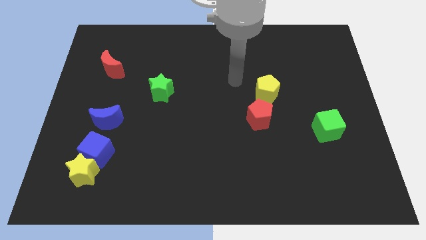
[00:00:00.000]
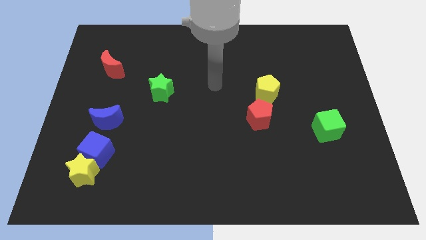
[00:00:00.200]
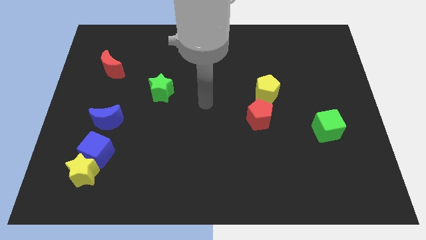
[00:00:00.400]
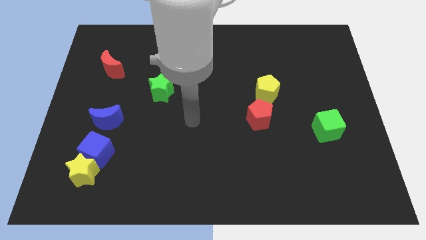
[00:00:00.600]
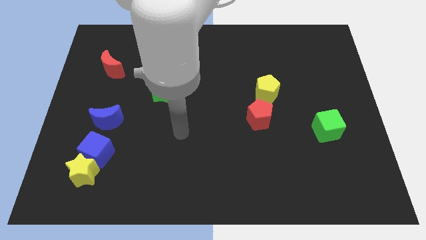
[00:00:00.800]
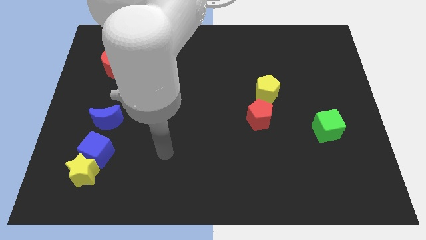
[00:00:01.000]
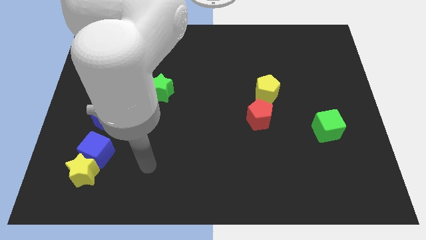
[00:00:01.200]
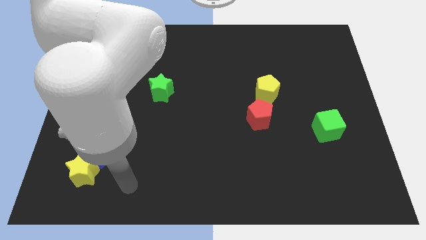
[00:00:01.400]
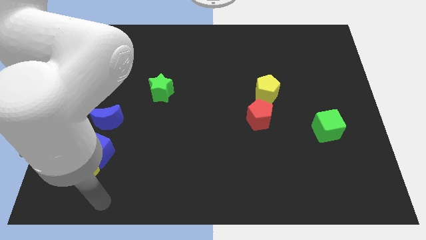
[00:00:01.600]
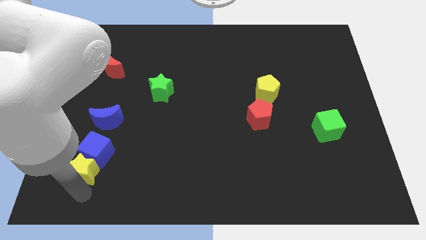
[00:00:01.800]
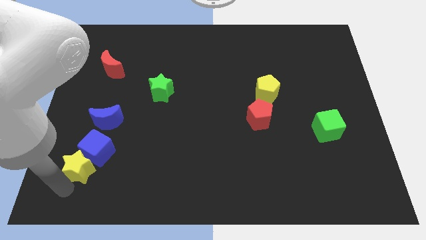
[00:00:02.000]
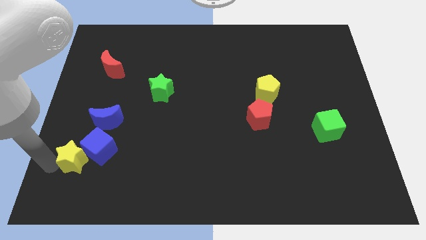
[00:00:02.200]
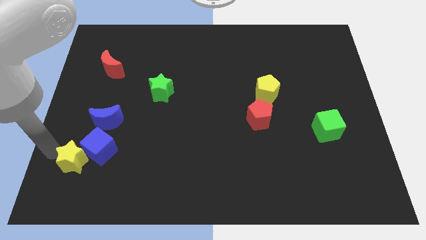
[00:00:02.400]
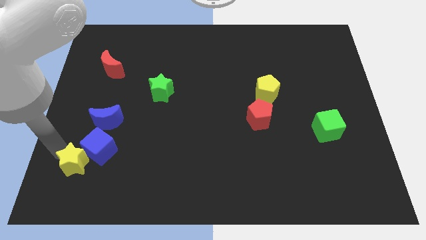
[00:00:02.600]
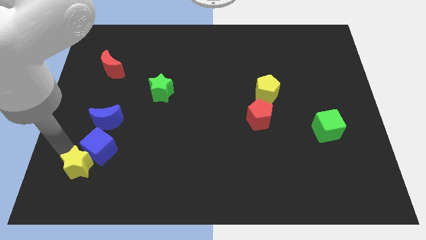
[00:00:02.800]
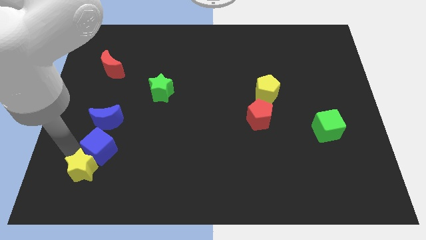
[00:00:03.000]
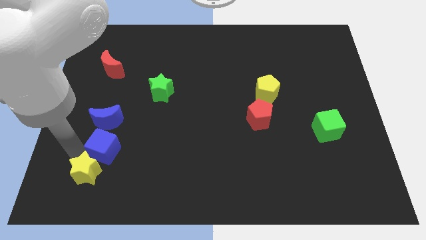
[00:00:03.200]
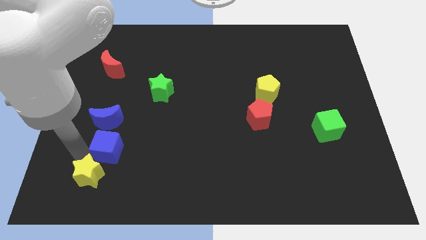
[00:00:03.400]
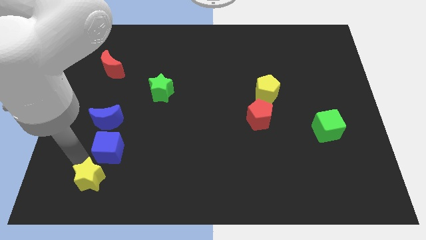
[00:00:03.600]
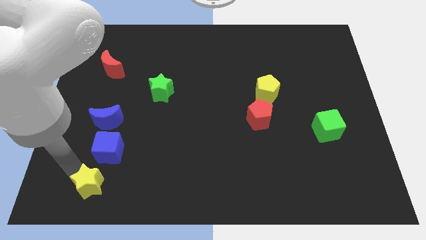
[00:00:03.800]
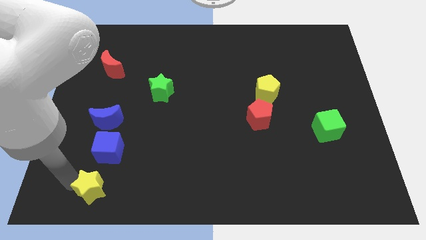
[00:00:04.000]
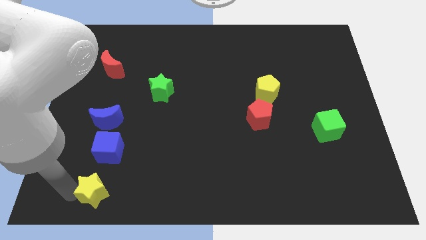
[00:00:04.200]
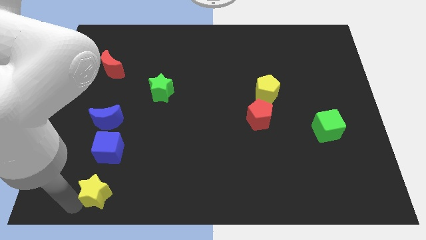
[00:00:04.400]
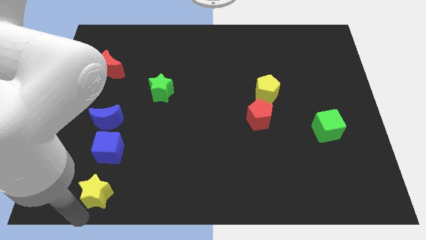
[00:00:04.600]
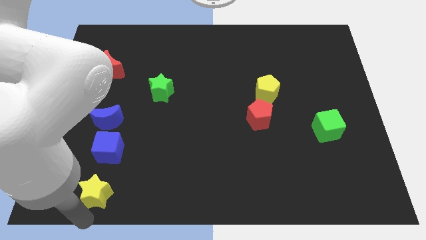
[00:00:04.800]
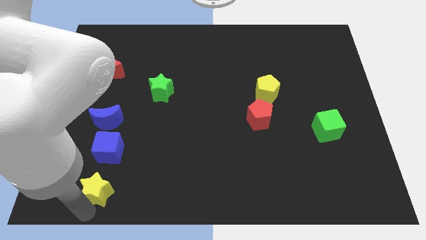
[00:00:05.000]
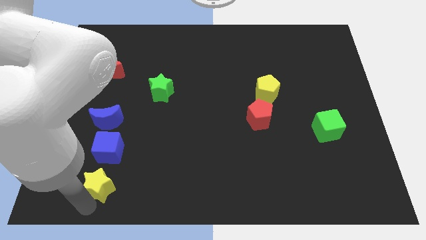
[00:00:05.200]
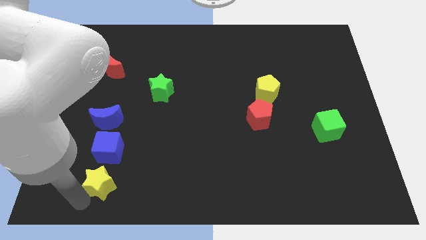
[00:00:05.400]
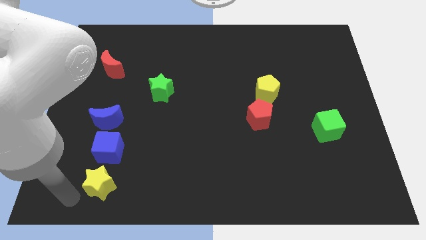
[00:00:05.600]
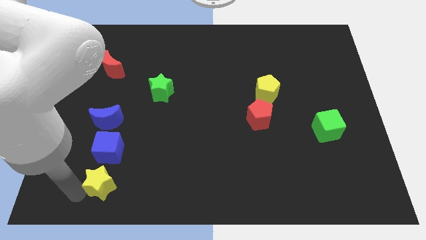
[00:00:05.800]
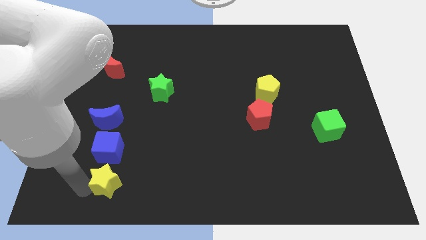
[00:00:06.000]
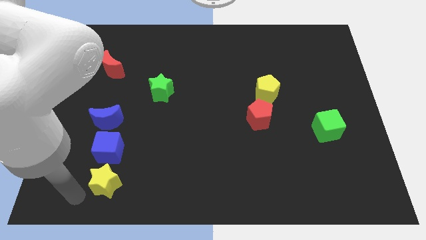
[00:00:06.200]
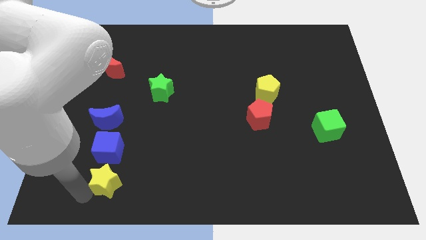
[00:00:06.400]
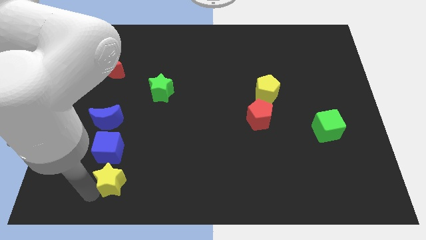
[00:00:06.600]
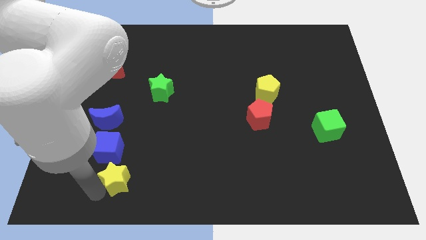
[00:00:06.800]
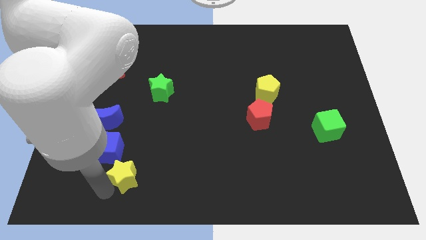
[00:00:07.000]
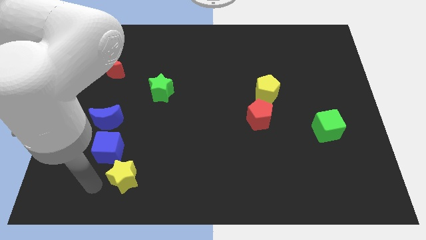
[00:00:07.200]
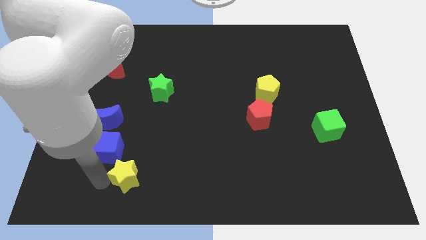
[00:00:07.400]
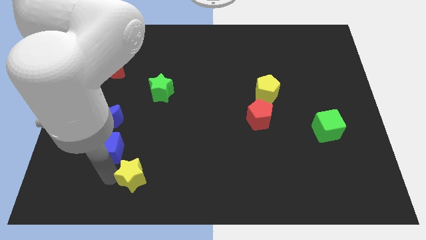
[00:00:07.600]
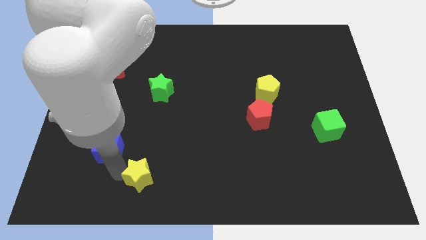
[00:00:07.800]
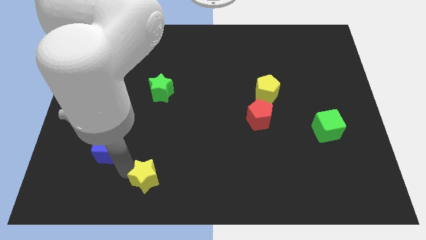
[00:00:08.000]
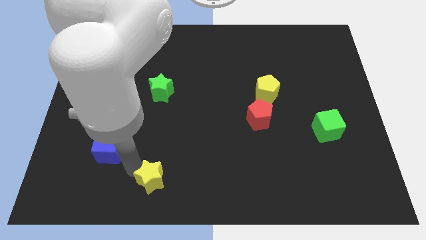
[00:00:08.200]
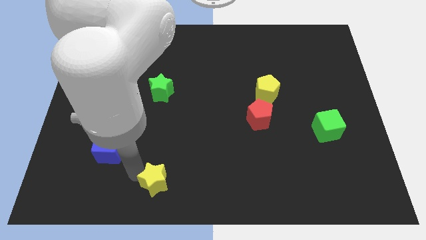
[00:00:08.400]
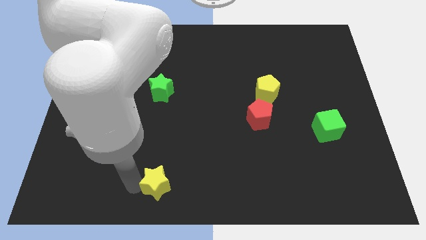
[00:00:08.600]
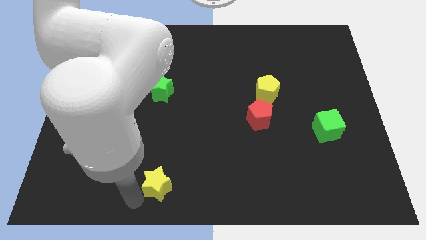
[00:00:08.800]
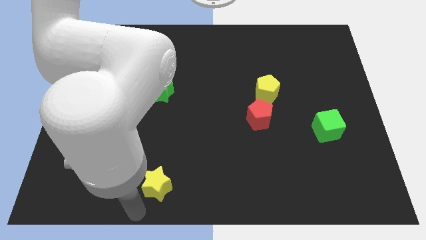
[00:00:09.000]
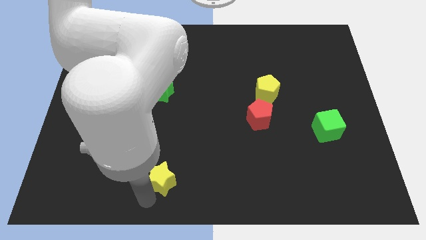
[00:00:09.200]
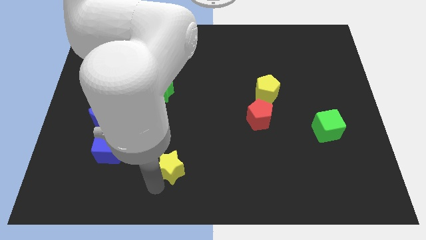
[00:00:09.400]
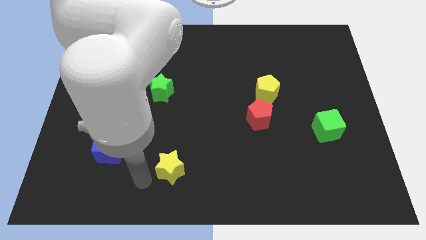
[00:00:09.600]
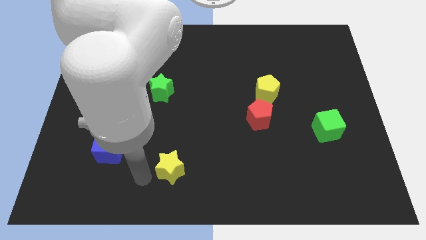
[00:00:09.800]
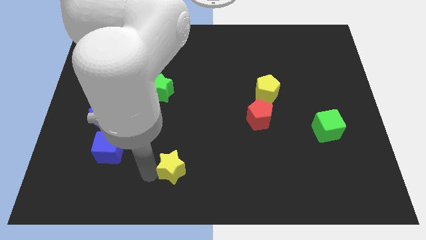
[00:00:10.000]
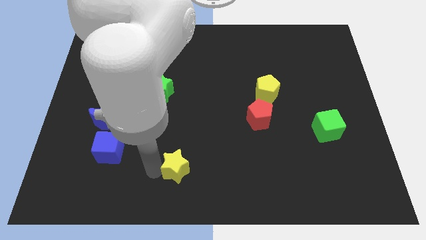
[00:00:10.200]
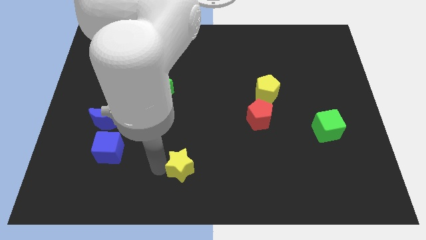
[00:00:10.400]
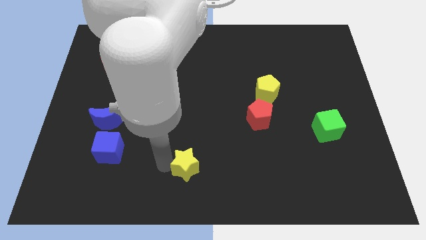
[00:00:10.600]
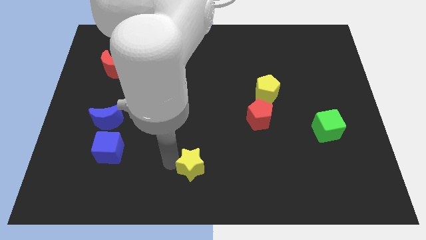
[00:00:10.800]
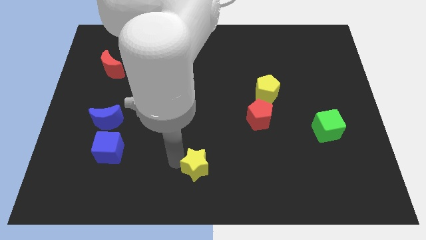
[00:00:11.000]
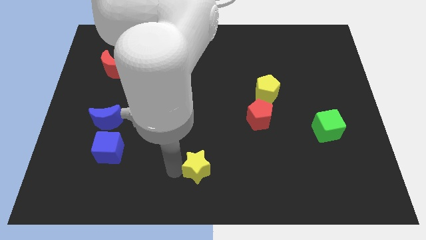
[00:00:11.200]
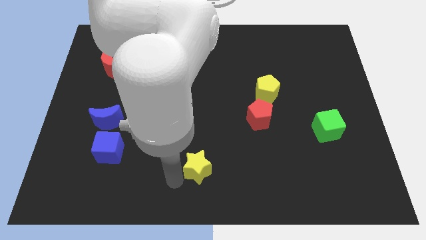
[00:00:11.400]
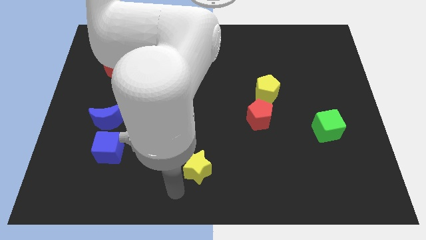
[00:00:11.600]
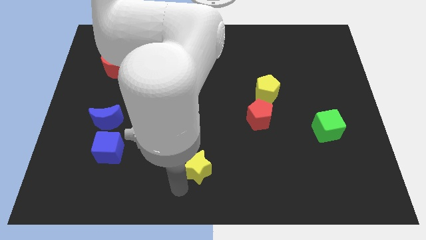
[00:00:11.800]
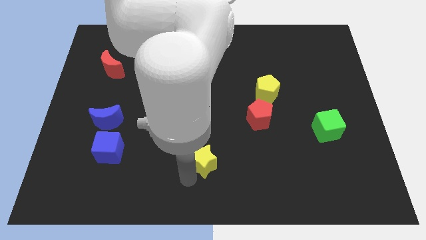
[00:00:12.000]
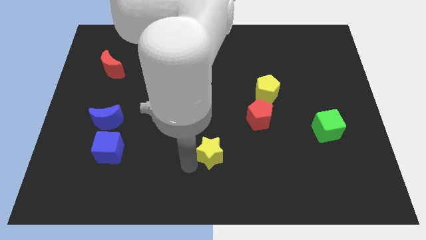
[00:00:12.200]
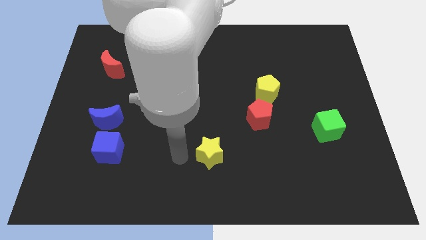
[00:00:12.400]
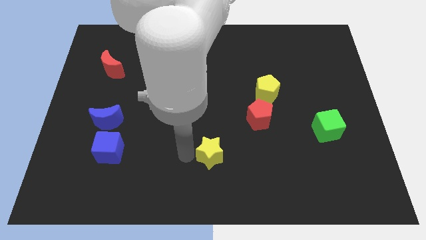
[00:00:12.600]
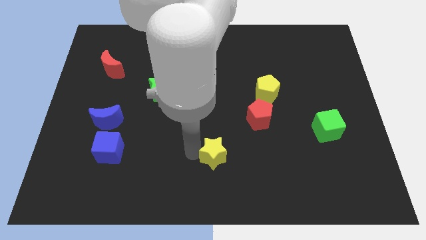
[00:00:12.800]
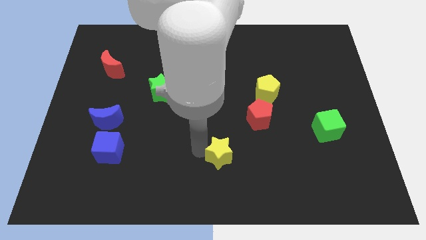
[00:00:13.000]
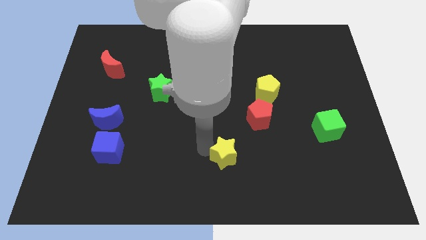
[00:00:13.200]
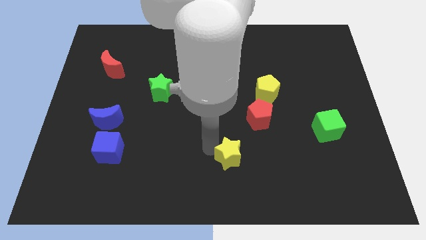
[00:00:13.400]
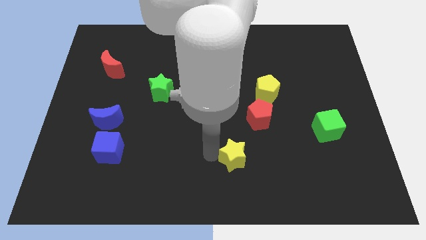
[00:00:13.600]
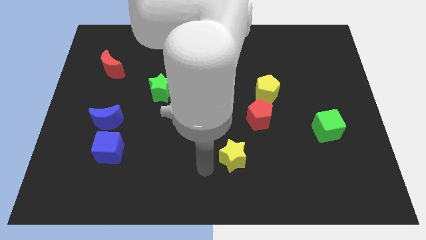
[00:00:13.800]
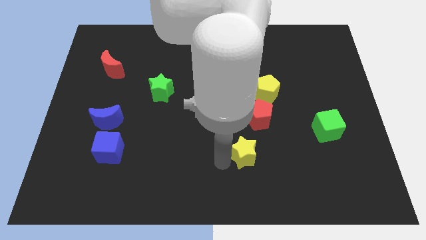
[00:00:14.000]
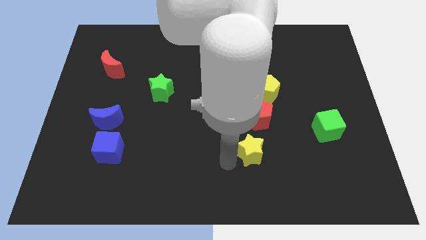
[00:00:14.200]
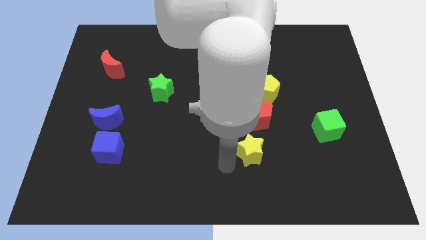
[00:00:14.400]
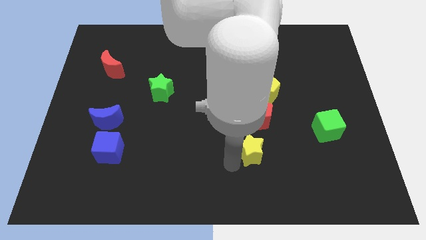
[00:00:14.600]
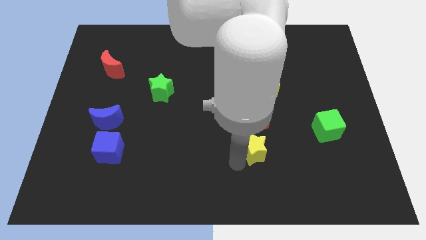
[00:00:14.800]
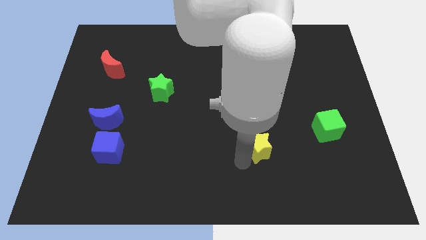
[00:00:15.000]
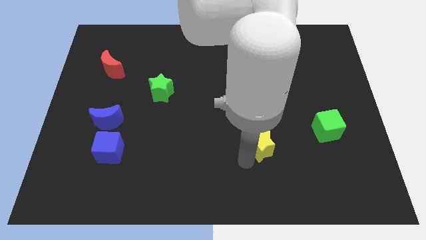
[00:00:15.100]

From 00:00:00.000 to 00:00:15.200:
slide the yellow star below the yellow pentagon
